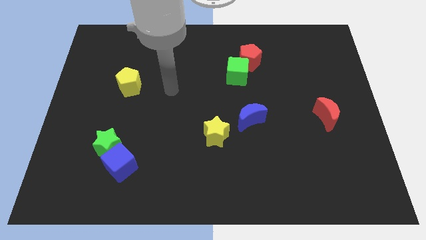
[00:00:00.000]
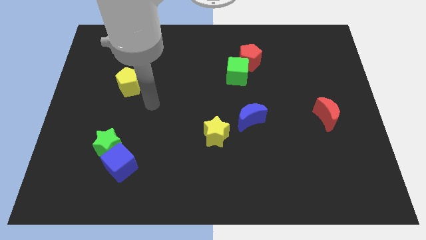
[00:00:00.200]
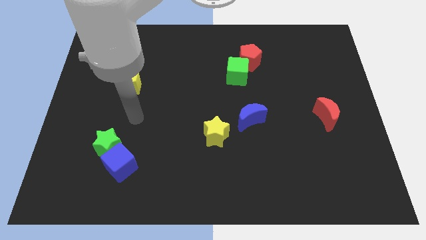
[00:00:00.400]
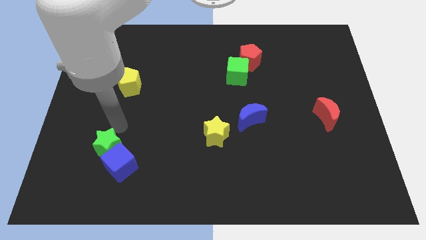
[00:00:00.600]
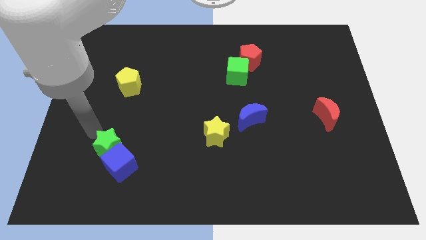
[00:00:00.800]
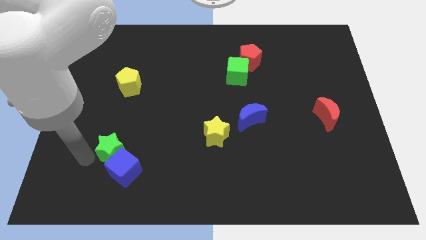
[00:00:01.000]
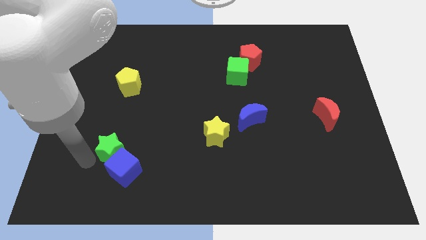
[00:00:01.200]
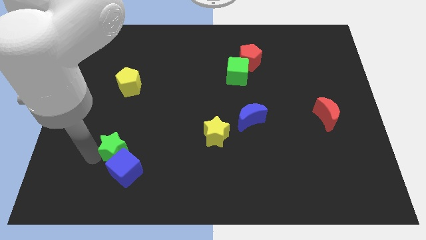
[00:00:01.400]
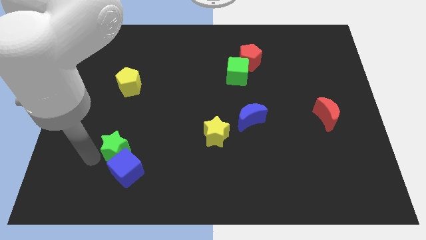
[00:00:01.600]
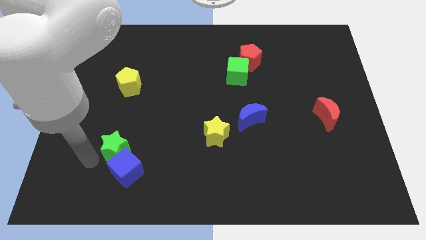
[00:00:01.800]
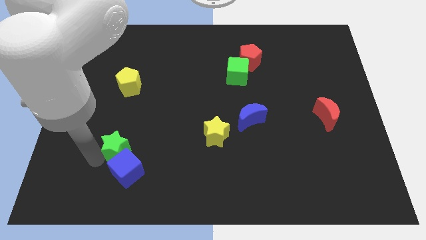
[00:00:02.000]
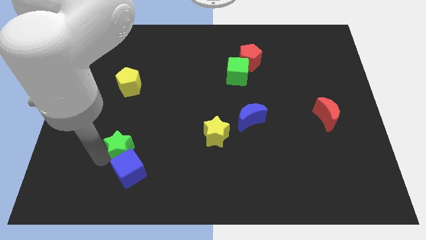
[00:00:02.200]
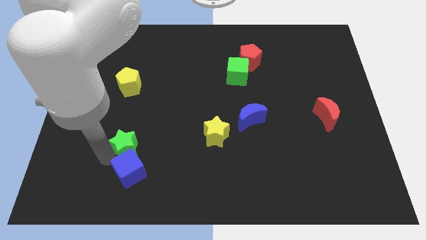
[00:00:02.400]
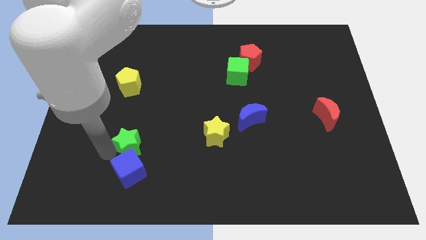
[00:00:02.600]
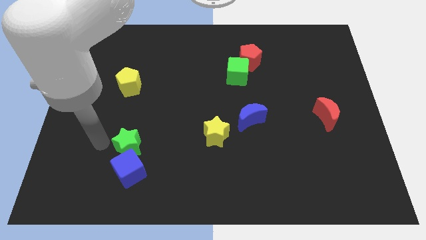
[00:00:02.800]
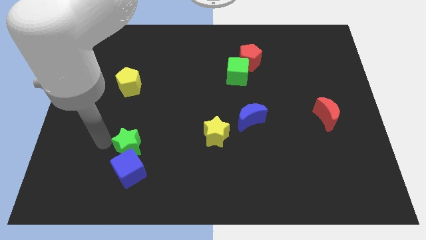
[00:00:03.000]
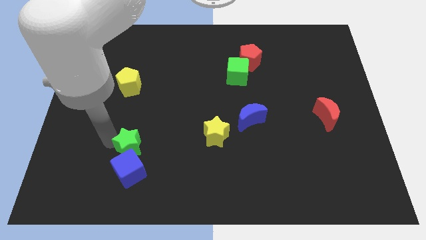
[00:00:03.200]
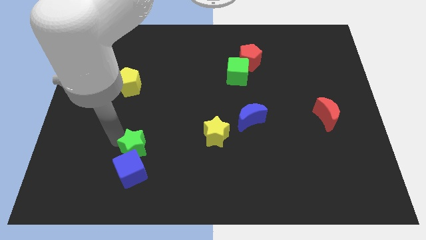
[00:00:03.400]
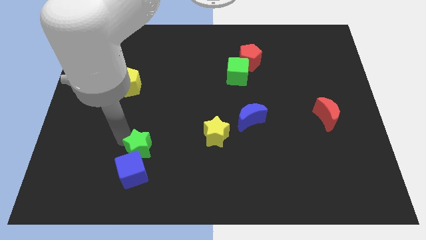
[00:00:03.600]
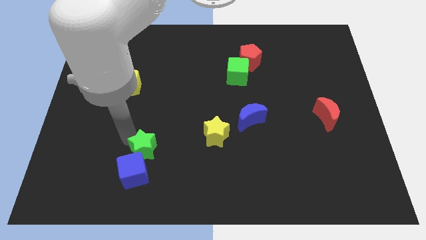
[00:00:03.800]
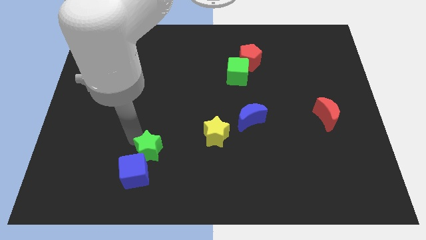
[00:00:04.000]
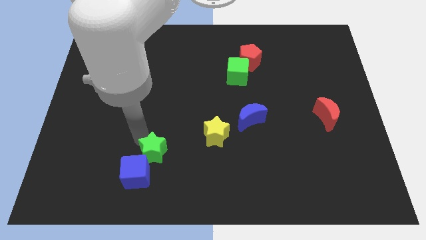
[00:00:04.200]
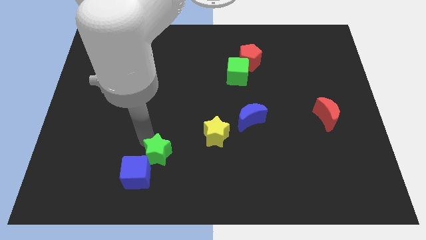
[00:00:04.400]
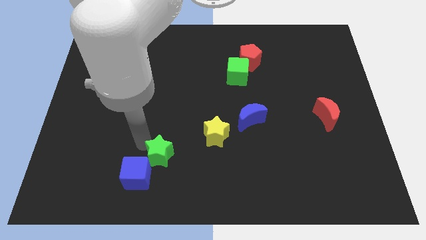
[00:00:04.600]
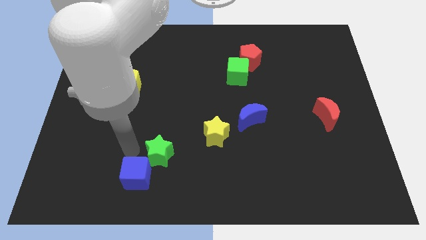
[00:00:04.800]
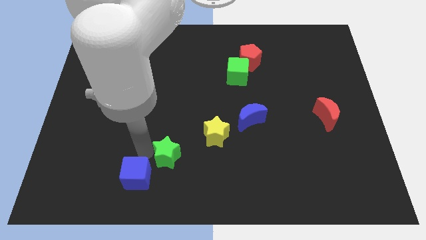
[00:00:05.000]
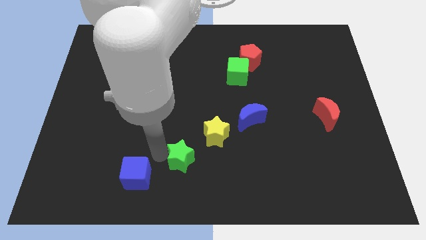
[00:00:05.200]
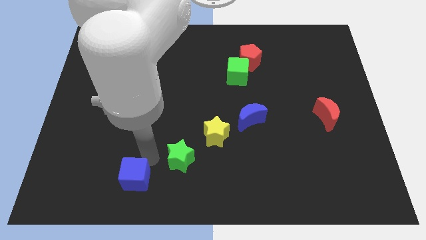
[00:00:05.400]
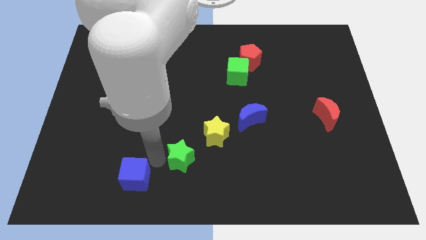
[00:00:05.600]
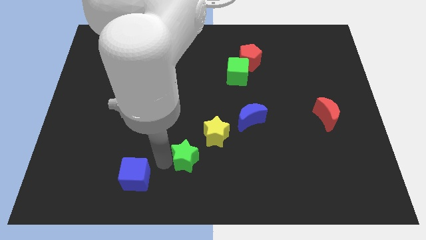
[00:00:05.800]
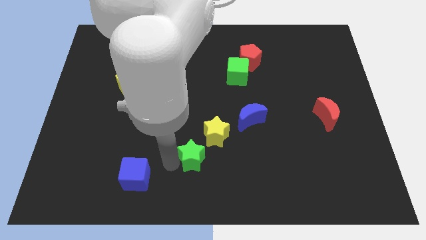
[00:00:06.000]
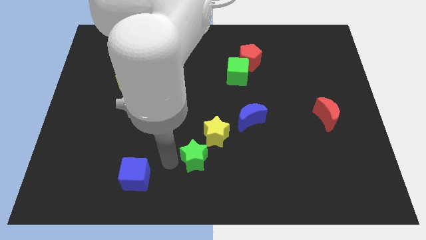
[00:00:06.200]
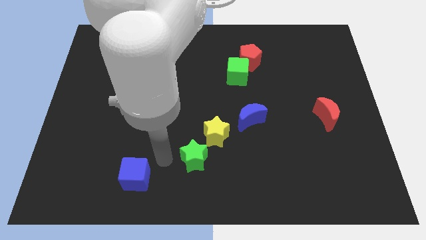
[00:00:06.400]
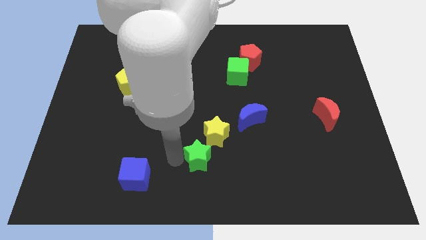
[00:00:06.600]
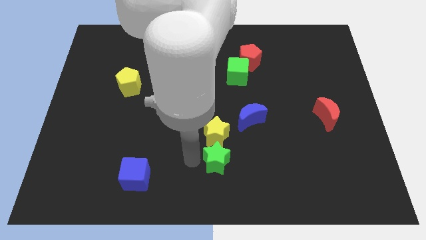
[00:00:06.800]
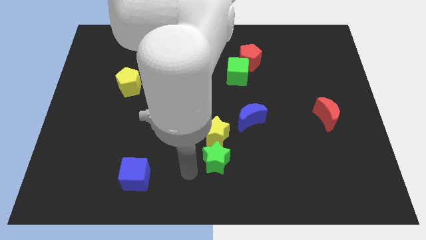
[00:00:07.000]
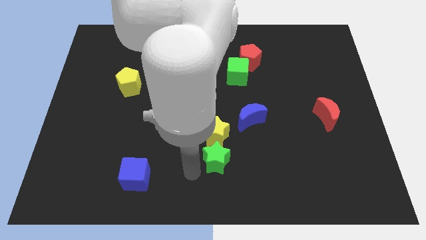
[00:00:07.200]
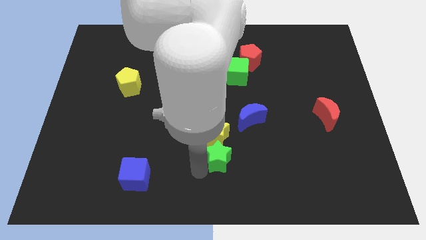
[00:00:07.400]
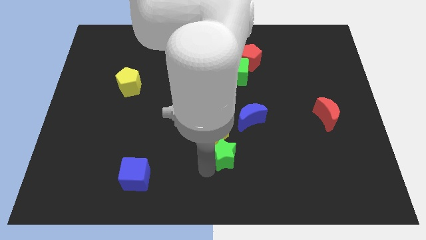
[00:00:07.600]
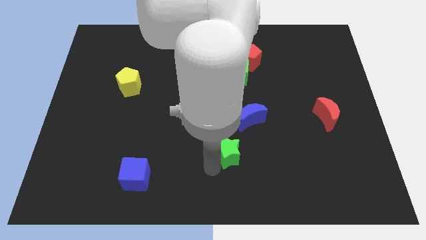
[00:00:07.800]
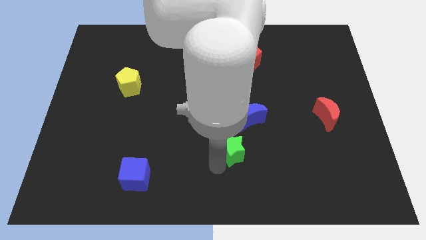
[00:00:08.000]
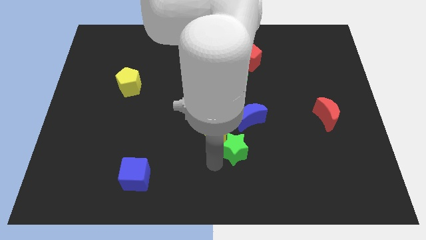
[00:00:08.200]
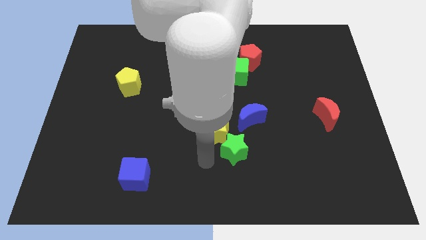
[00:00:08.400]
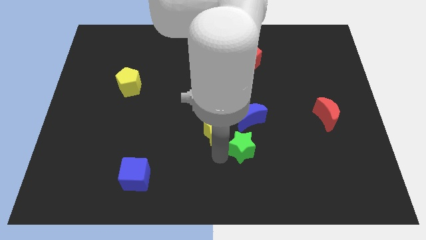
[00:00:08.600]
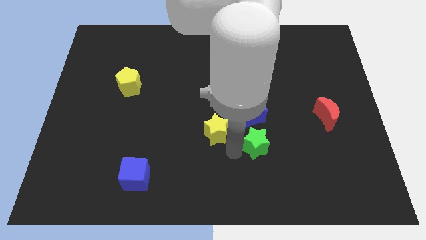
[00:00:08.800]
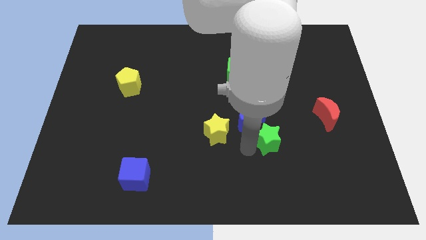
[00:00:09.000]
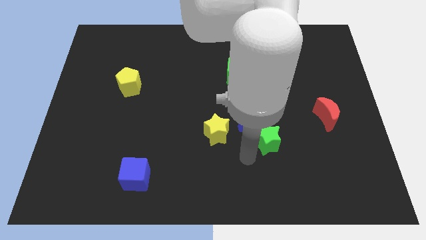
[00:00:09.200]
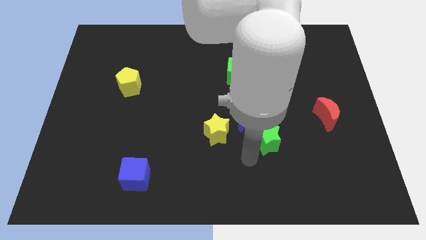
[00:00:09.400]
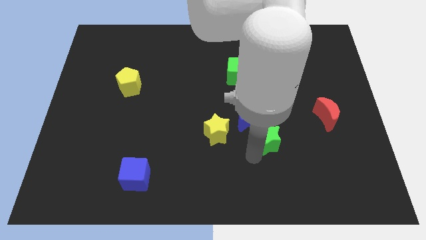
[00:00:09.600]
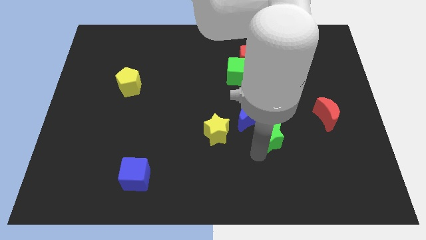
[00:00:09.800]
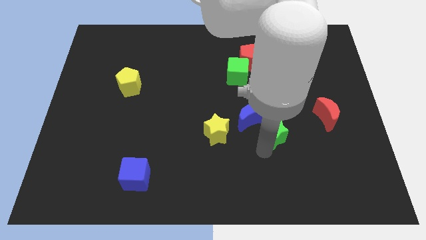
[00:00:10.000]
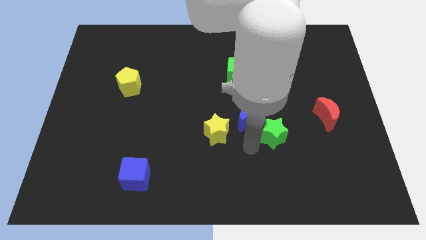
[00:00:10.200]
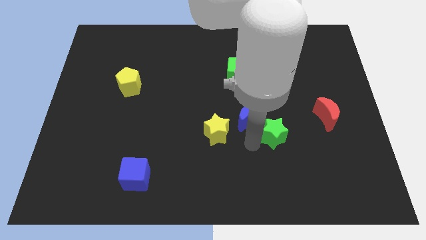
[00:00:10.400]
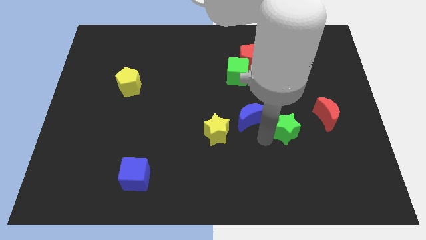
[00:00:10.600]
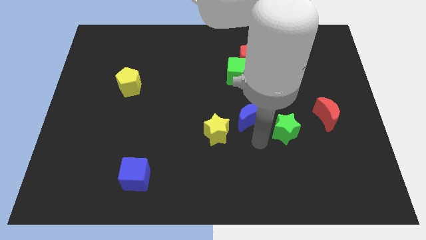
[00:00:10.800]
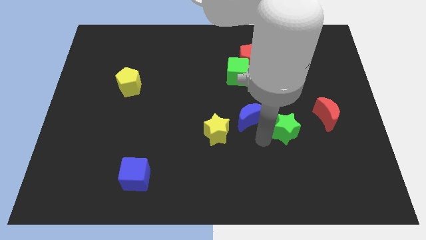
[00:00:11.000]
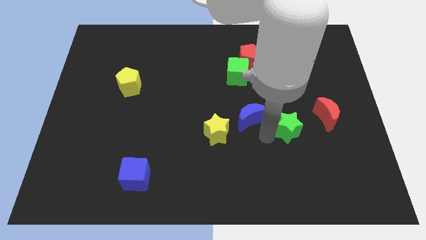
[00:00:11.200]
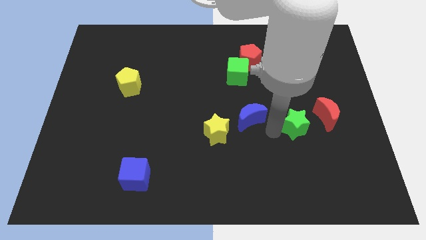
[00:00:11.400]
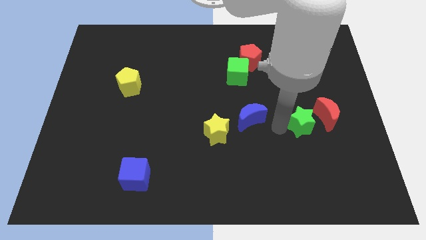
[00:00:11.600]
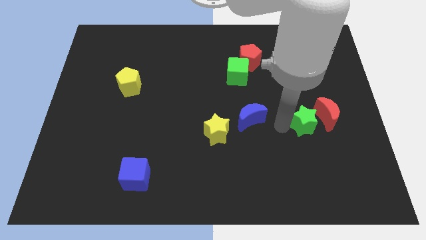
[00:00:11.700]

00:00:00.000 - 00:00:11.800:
put the green star to the red moon

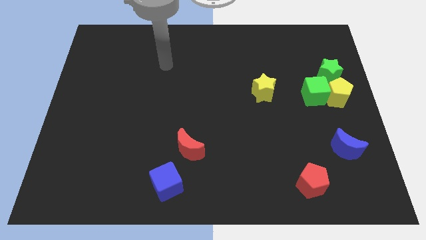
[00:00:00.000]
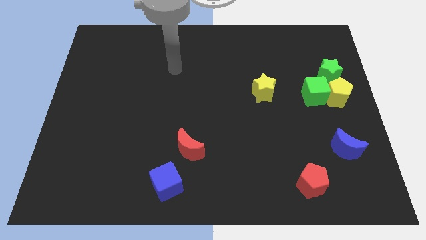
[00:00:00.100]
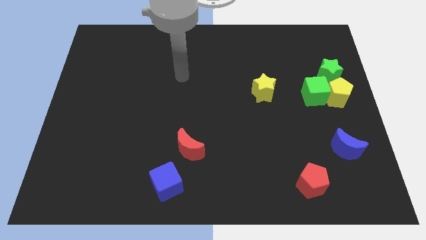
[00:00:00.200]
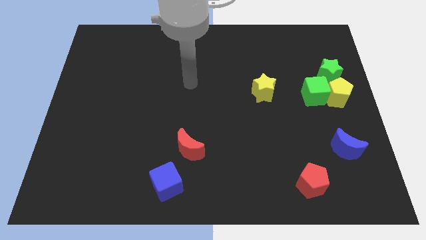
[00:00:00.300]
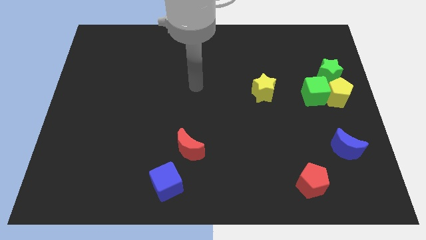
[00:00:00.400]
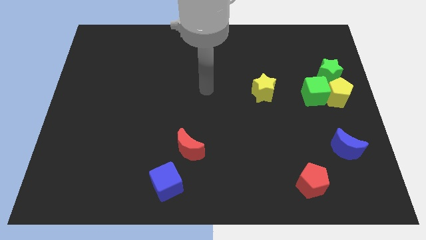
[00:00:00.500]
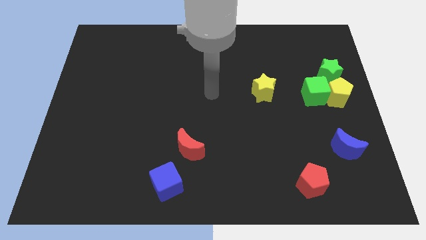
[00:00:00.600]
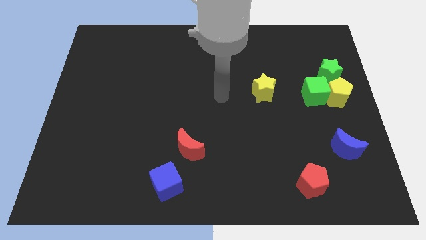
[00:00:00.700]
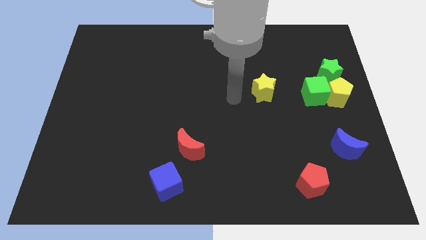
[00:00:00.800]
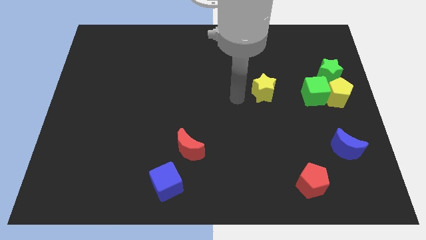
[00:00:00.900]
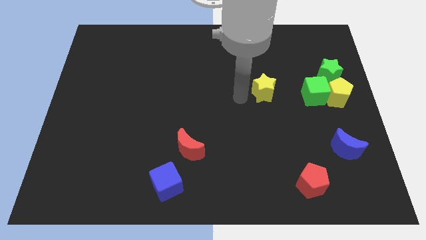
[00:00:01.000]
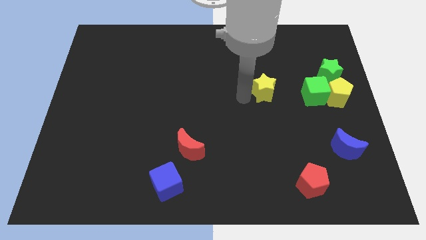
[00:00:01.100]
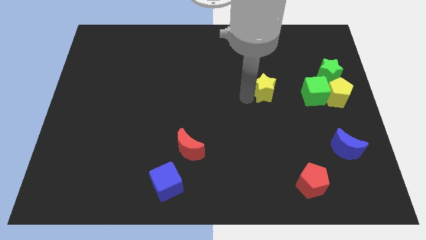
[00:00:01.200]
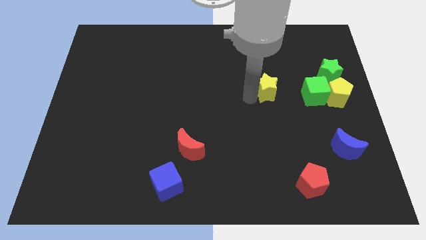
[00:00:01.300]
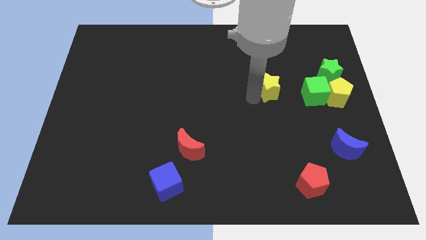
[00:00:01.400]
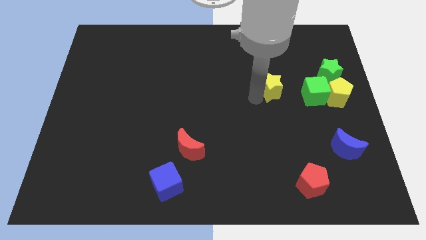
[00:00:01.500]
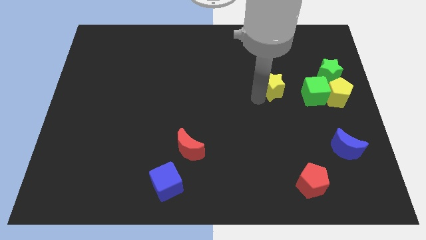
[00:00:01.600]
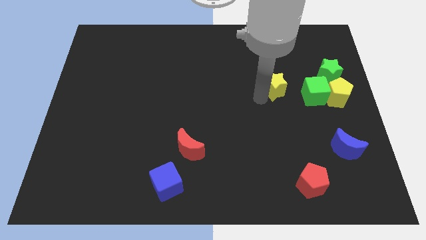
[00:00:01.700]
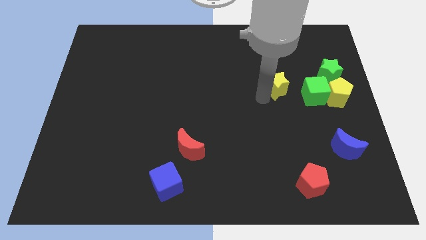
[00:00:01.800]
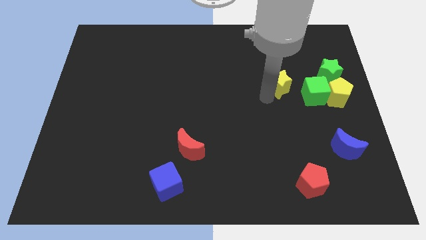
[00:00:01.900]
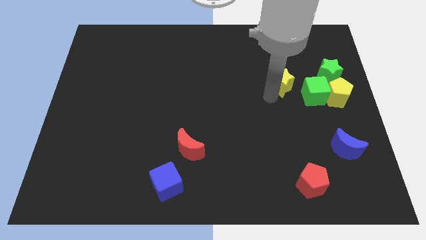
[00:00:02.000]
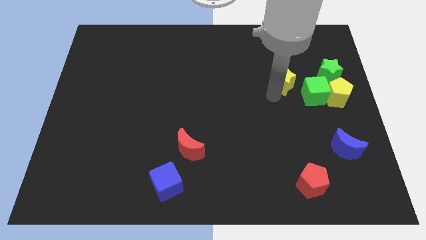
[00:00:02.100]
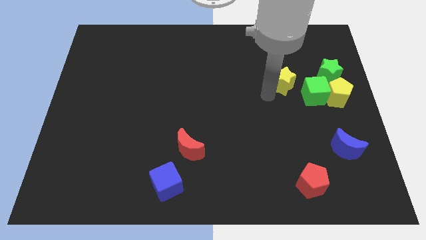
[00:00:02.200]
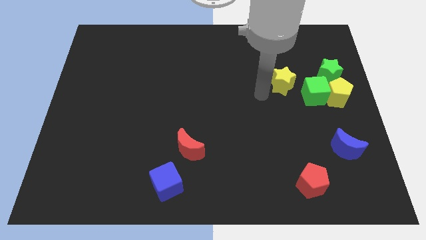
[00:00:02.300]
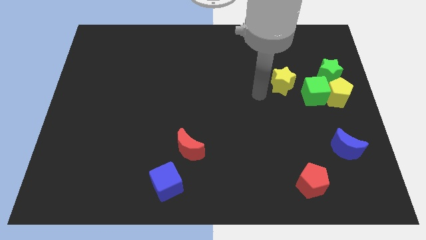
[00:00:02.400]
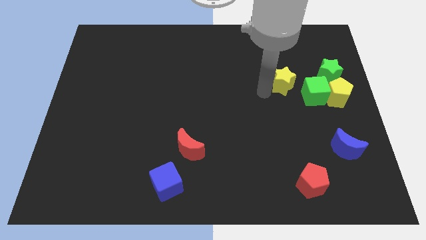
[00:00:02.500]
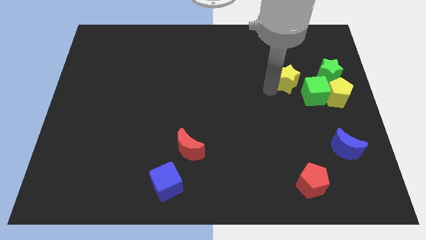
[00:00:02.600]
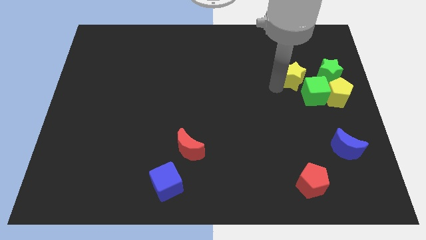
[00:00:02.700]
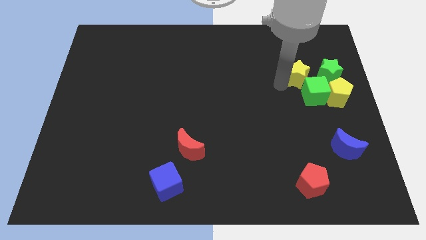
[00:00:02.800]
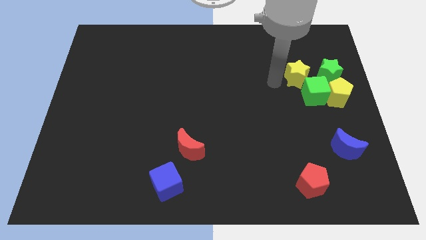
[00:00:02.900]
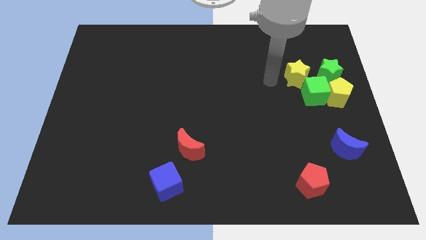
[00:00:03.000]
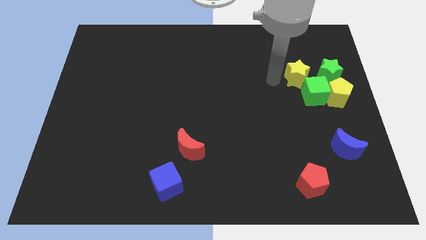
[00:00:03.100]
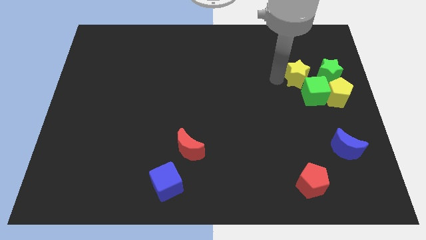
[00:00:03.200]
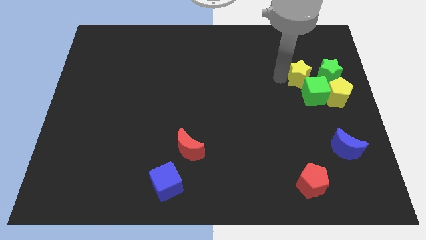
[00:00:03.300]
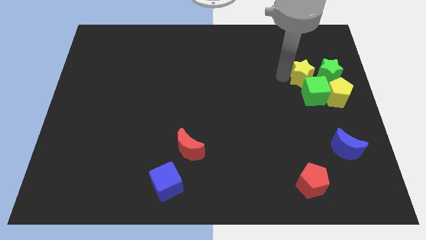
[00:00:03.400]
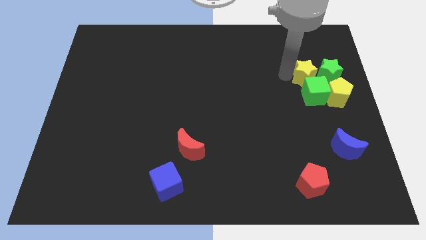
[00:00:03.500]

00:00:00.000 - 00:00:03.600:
move the yellow star next to the green star
